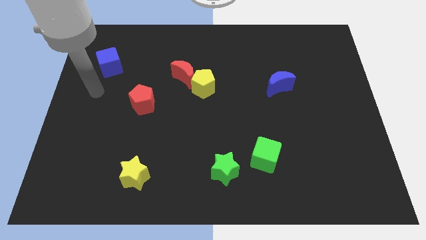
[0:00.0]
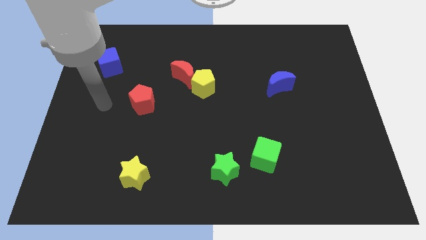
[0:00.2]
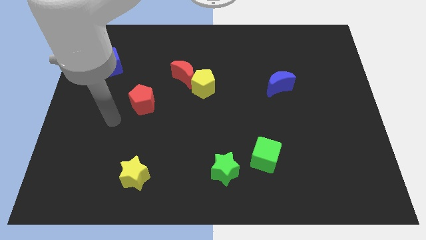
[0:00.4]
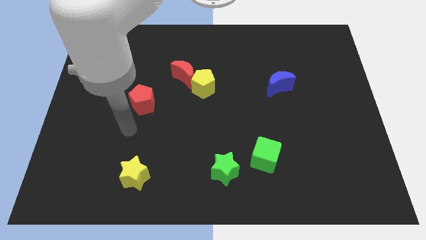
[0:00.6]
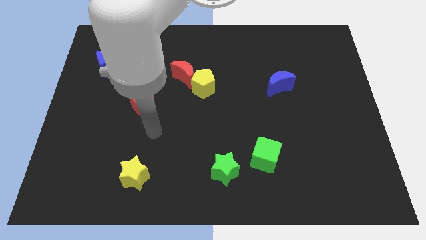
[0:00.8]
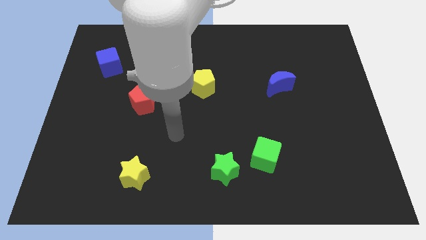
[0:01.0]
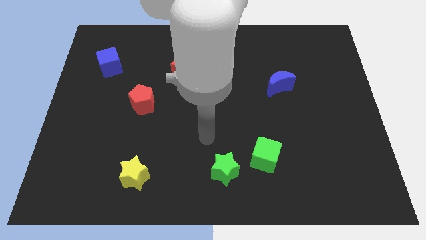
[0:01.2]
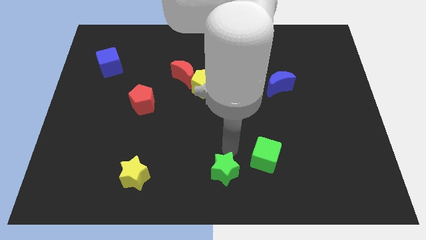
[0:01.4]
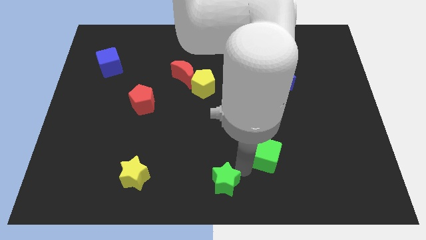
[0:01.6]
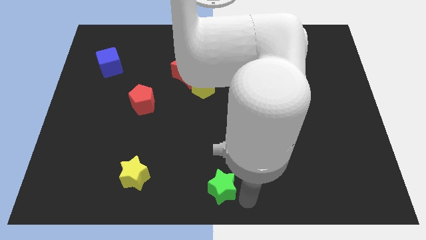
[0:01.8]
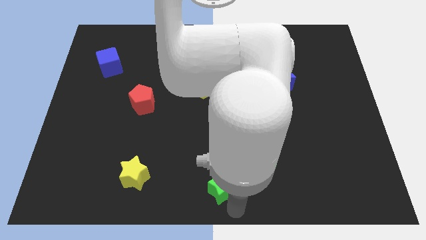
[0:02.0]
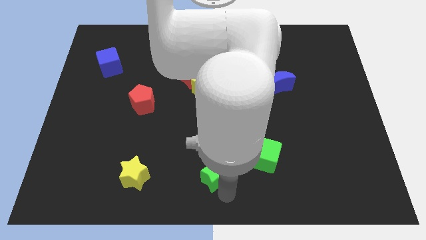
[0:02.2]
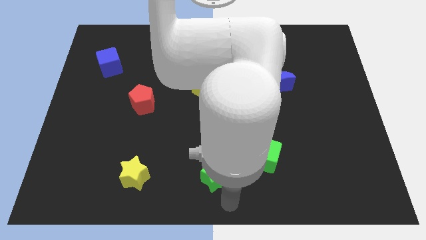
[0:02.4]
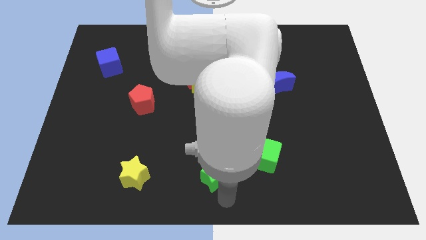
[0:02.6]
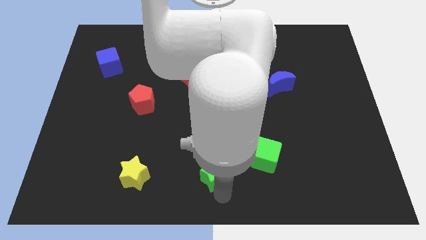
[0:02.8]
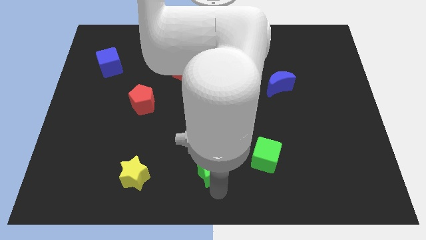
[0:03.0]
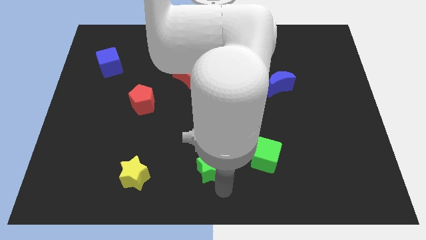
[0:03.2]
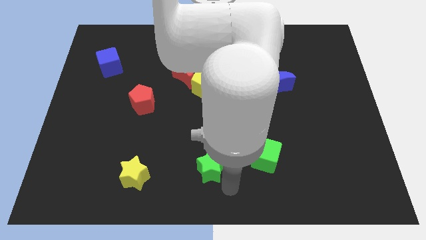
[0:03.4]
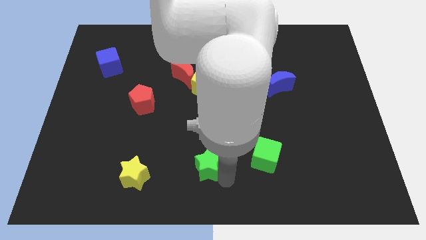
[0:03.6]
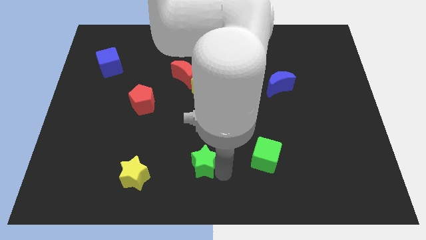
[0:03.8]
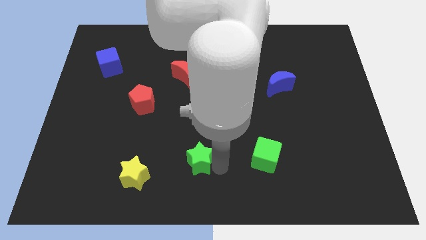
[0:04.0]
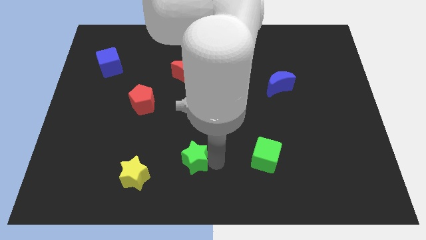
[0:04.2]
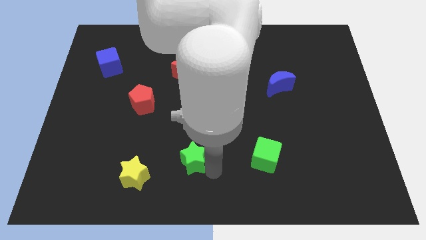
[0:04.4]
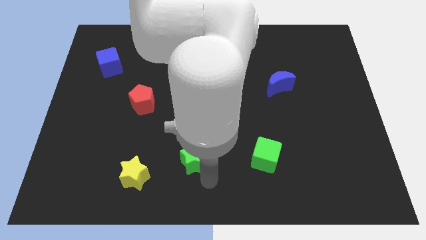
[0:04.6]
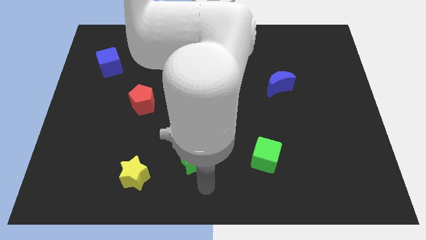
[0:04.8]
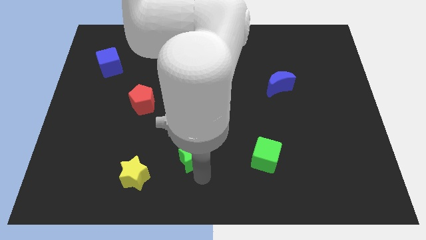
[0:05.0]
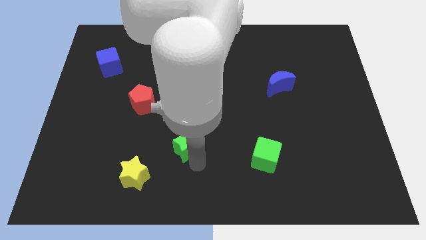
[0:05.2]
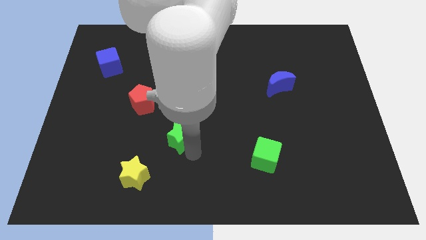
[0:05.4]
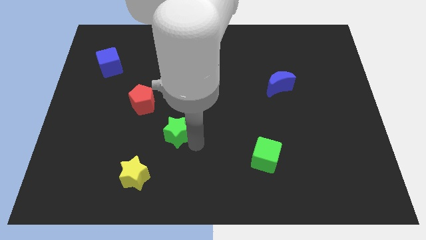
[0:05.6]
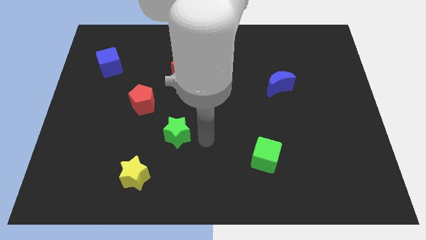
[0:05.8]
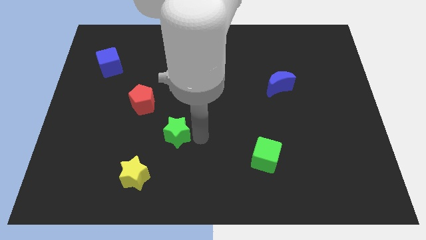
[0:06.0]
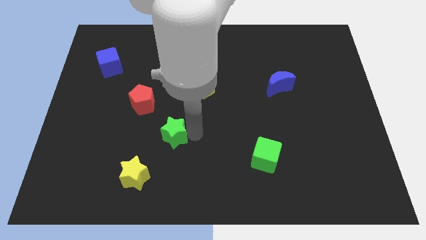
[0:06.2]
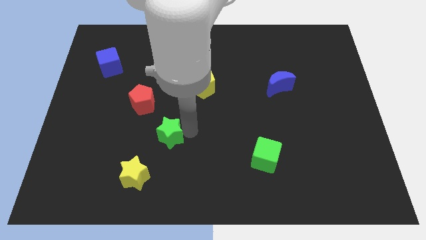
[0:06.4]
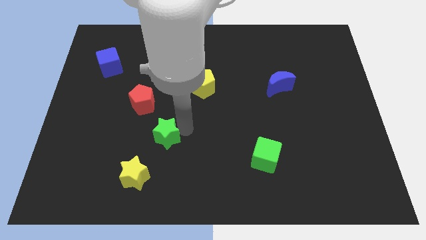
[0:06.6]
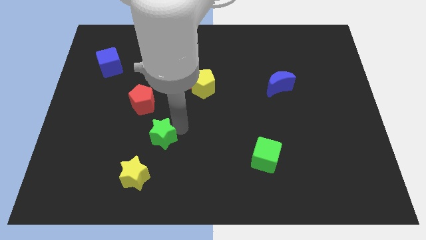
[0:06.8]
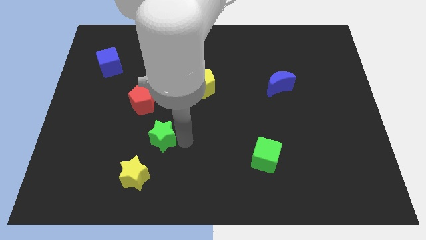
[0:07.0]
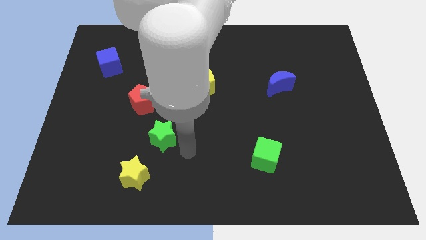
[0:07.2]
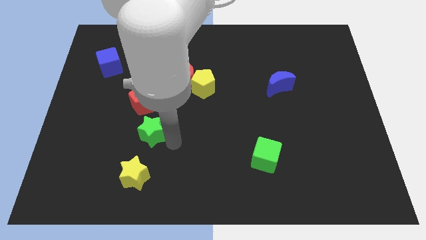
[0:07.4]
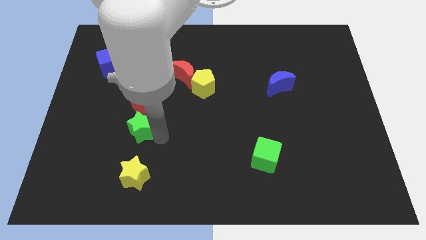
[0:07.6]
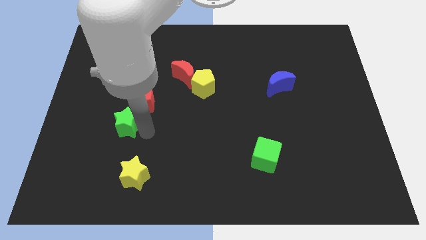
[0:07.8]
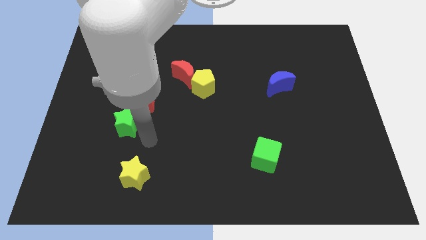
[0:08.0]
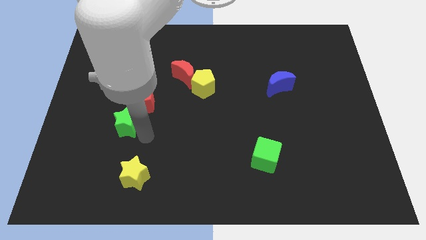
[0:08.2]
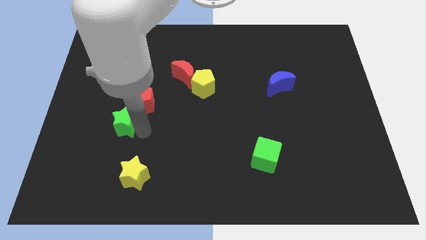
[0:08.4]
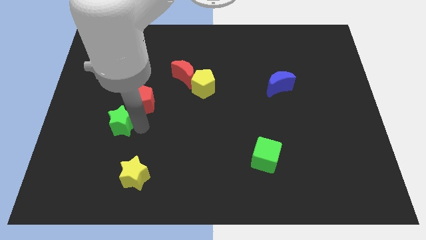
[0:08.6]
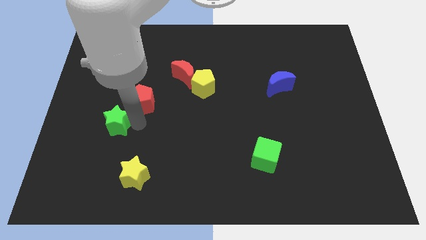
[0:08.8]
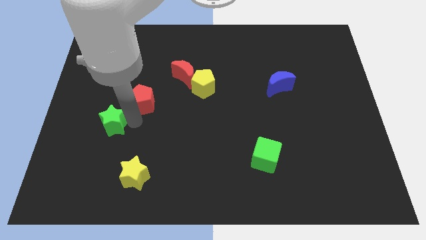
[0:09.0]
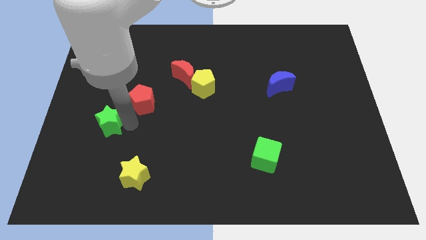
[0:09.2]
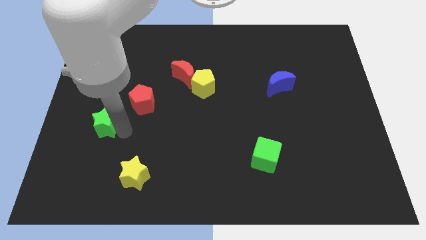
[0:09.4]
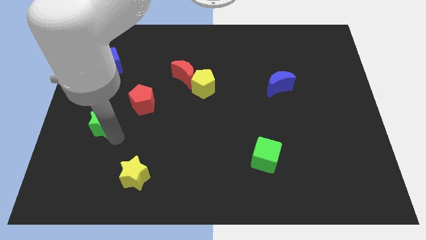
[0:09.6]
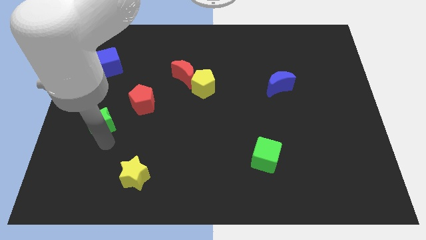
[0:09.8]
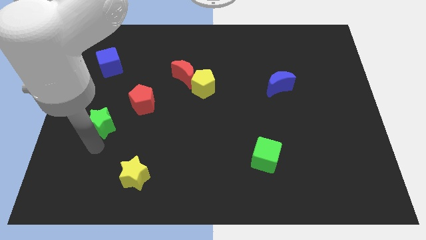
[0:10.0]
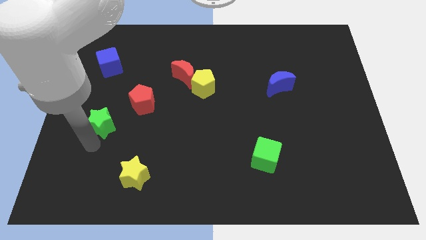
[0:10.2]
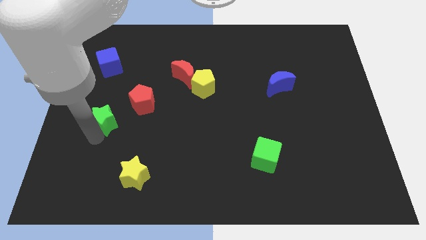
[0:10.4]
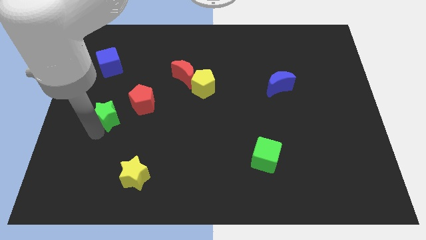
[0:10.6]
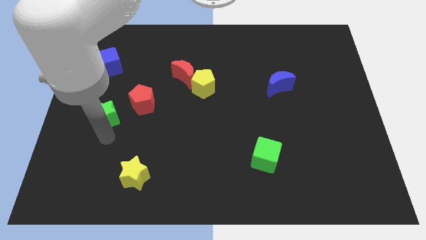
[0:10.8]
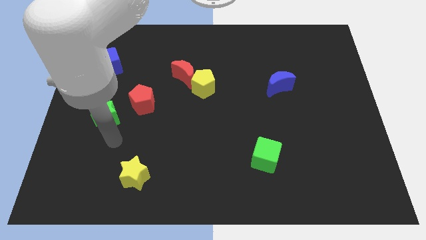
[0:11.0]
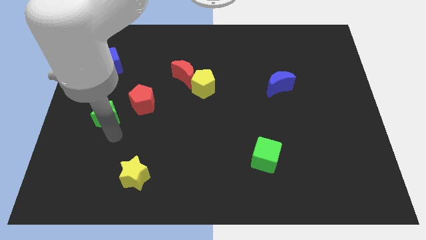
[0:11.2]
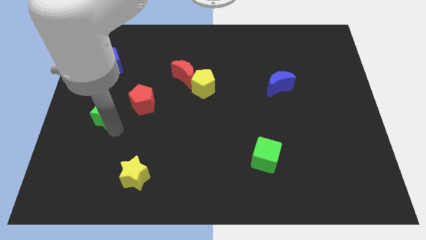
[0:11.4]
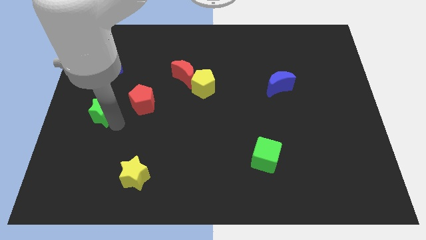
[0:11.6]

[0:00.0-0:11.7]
push the green star below the blue cube

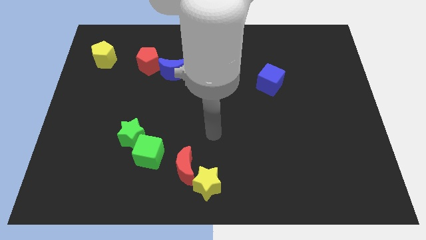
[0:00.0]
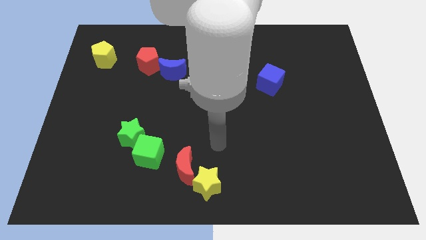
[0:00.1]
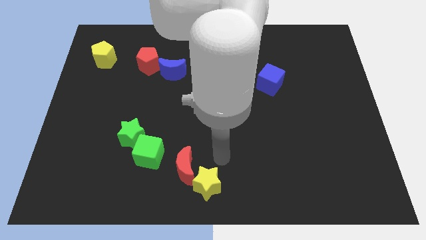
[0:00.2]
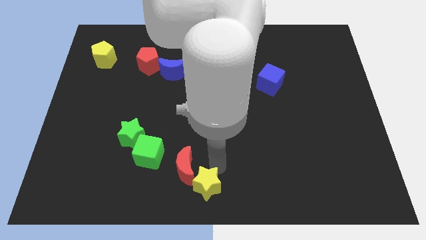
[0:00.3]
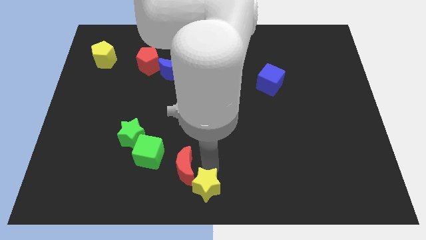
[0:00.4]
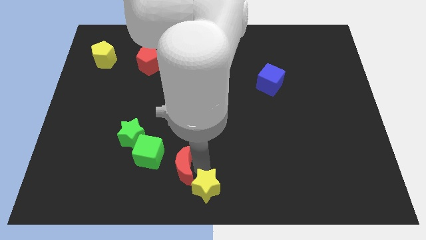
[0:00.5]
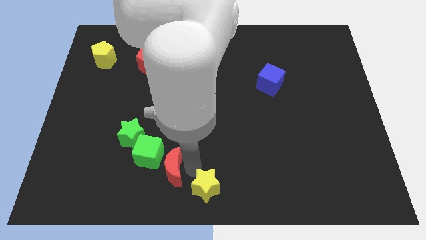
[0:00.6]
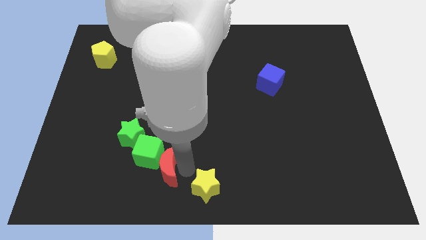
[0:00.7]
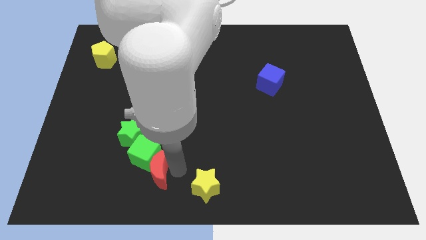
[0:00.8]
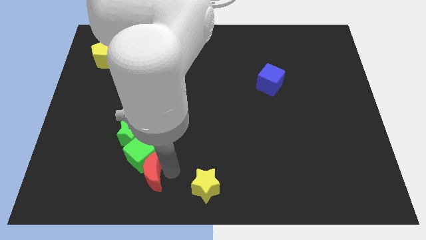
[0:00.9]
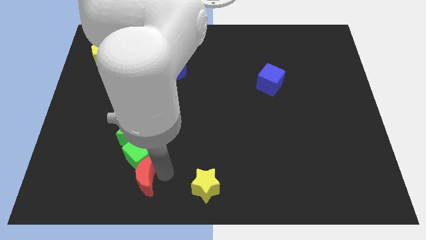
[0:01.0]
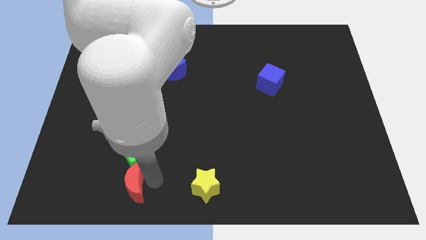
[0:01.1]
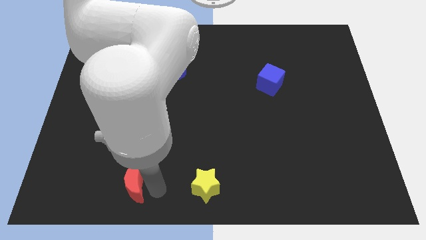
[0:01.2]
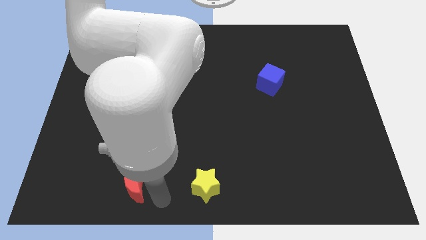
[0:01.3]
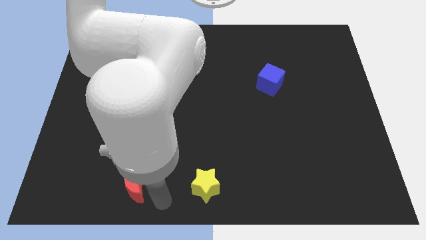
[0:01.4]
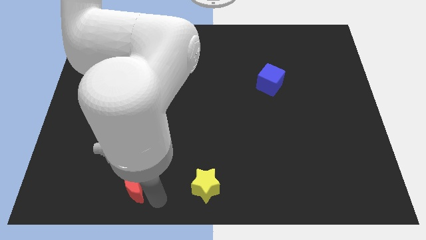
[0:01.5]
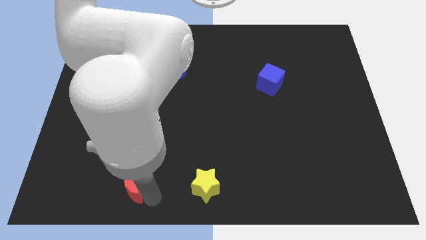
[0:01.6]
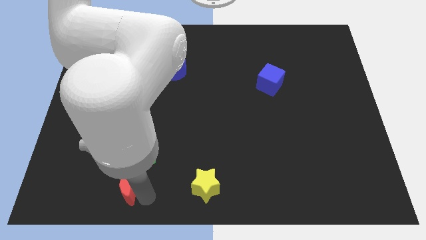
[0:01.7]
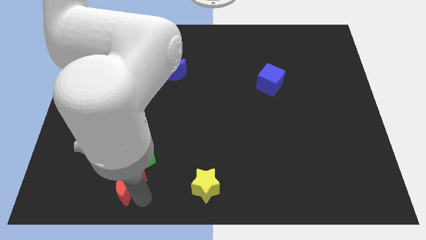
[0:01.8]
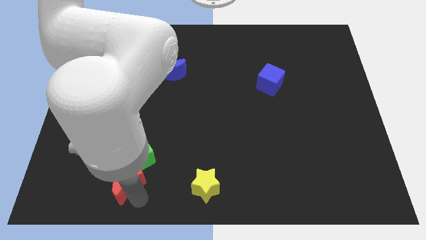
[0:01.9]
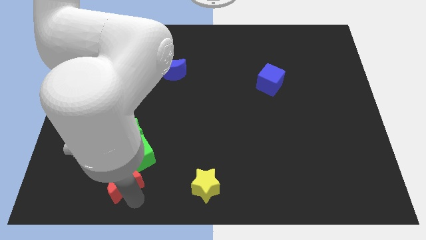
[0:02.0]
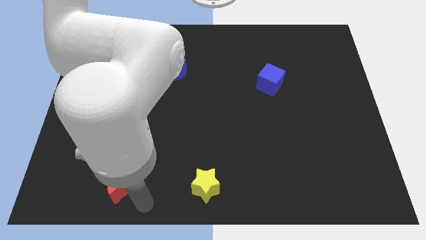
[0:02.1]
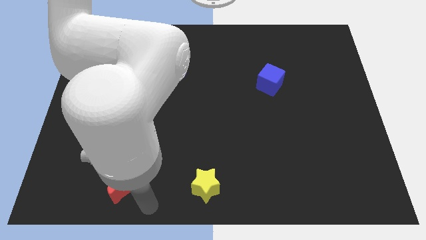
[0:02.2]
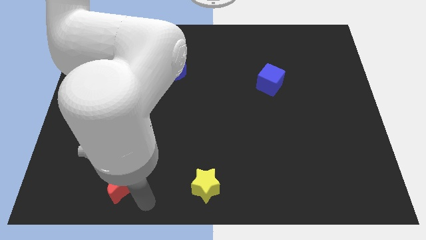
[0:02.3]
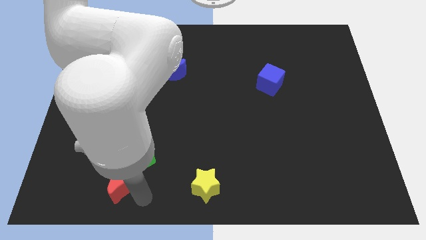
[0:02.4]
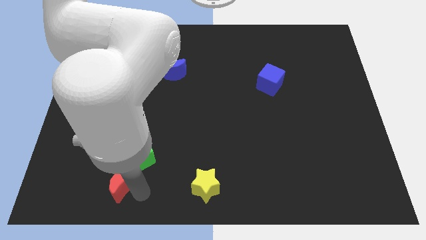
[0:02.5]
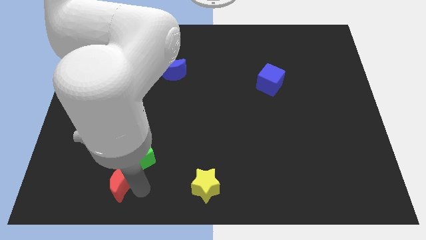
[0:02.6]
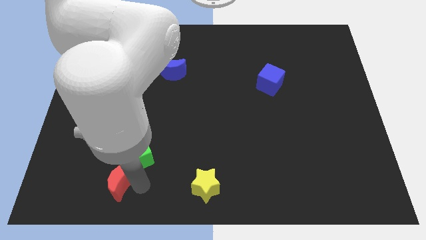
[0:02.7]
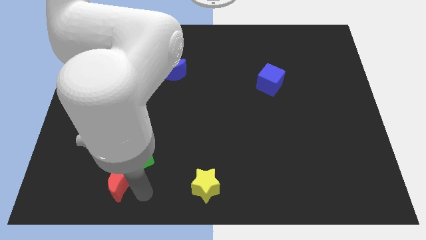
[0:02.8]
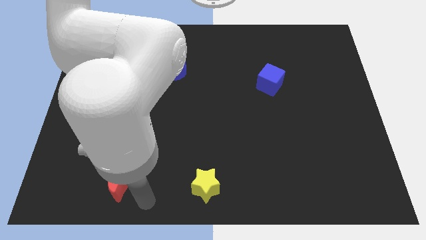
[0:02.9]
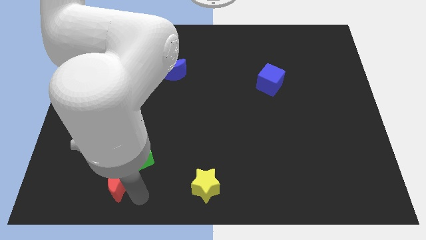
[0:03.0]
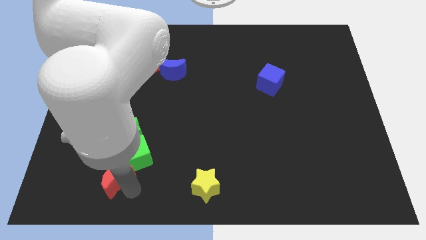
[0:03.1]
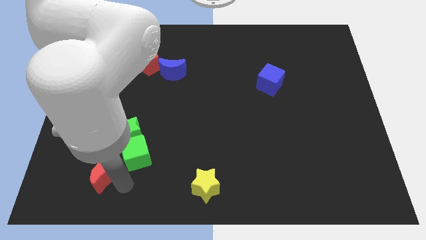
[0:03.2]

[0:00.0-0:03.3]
move the red moon to the left of the green cube
